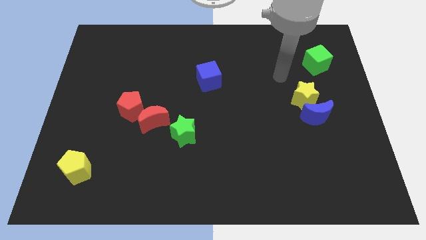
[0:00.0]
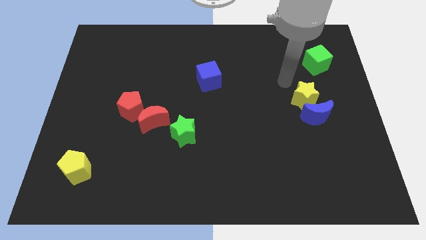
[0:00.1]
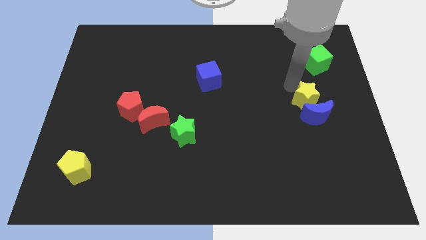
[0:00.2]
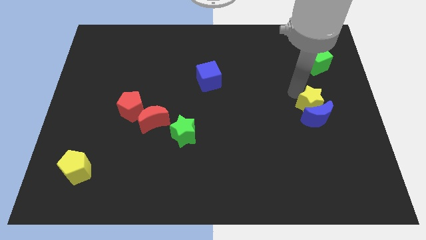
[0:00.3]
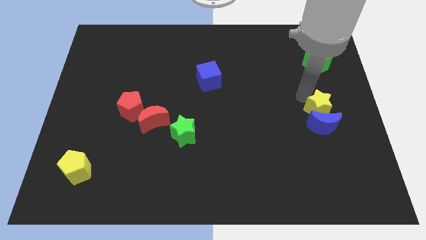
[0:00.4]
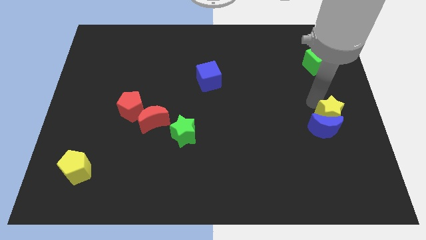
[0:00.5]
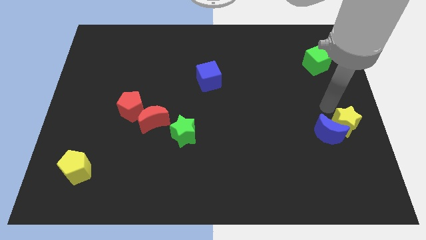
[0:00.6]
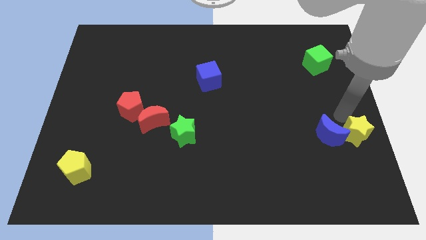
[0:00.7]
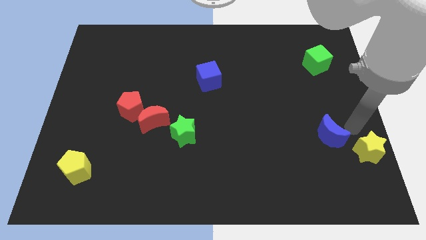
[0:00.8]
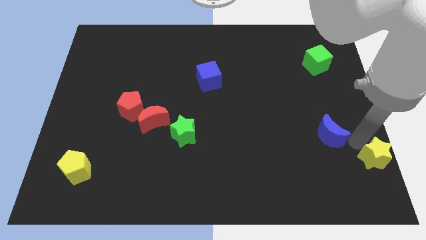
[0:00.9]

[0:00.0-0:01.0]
move the blue moon away from the yellow star

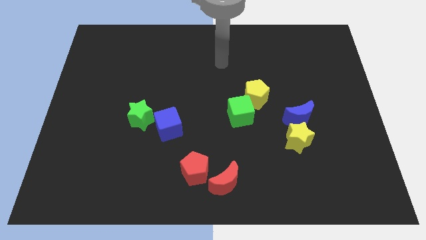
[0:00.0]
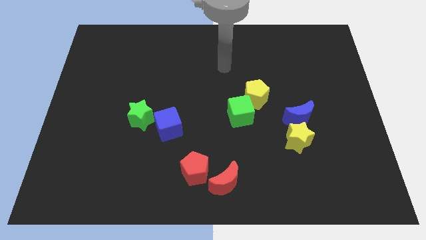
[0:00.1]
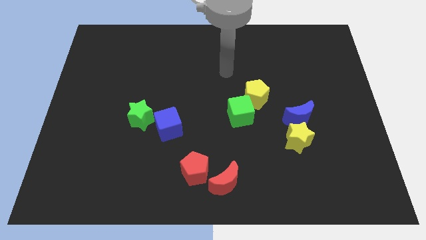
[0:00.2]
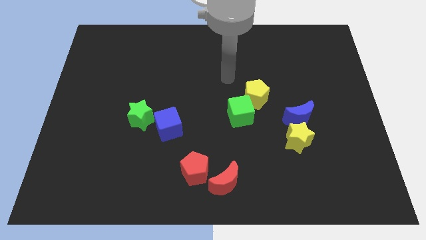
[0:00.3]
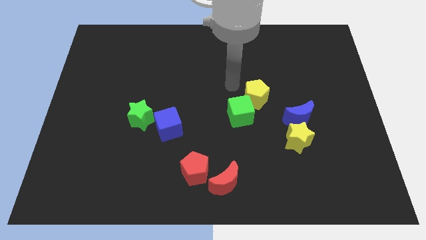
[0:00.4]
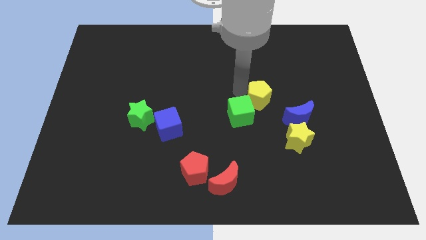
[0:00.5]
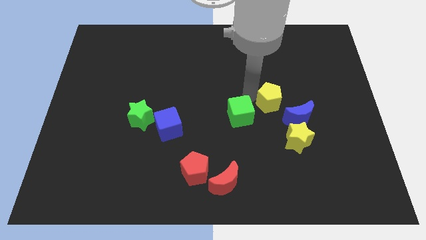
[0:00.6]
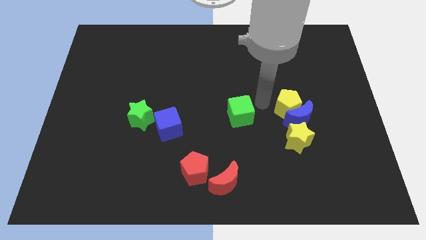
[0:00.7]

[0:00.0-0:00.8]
separate the green cube from the yellow pentagon

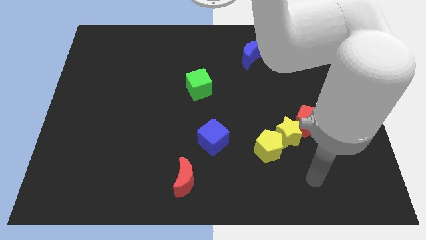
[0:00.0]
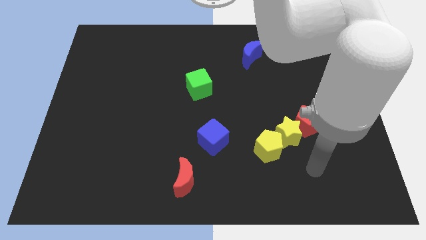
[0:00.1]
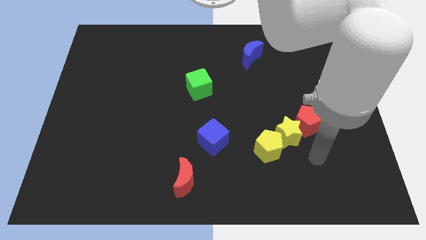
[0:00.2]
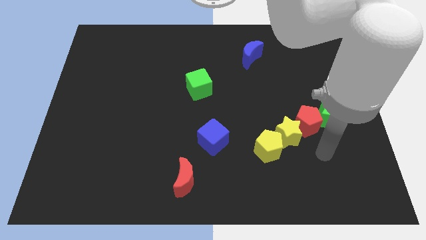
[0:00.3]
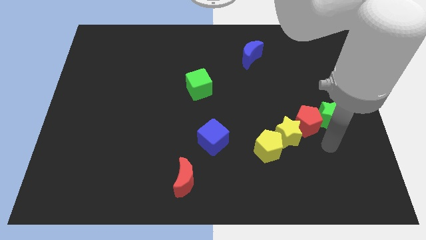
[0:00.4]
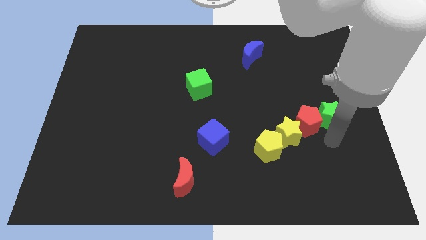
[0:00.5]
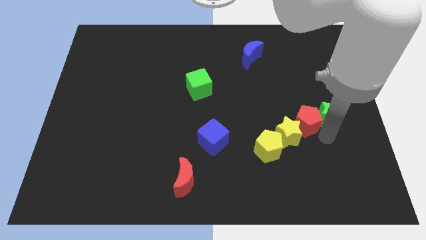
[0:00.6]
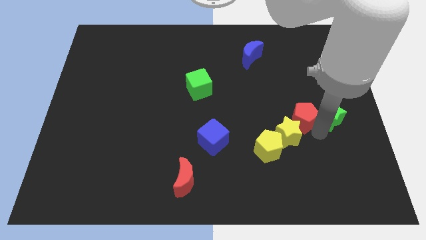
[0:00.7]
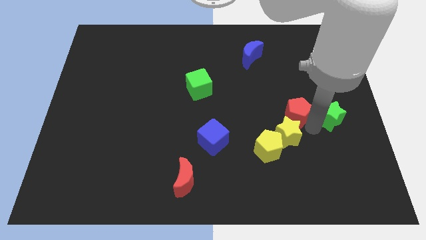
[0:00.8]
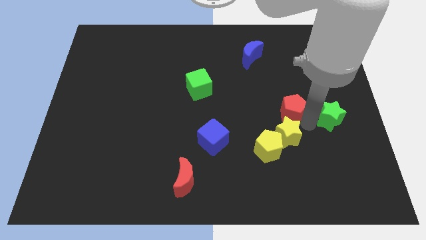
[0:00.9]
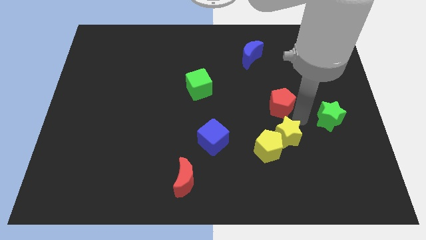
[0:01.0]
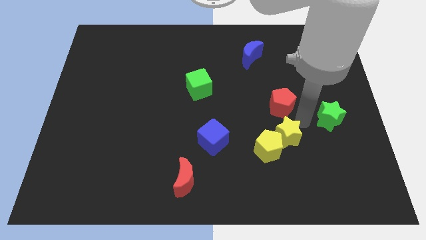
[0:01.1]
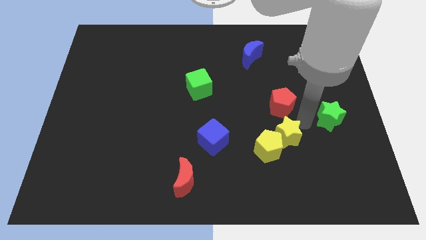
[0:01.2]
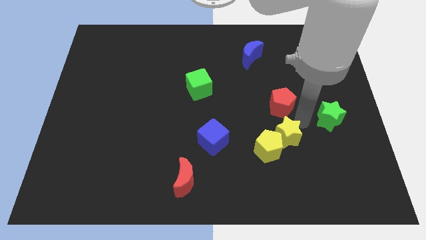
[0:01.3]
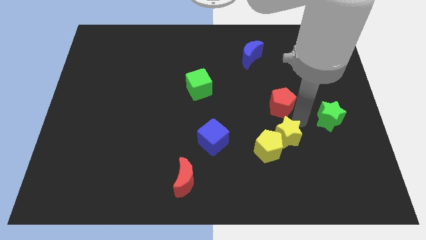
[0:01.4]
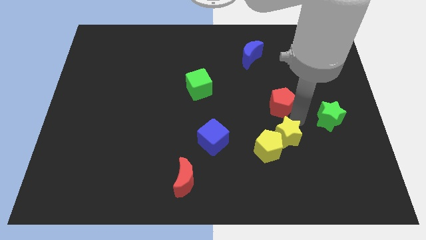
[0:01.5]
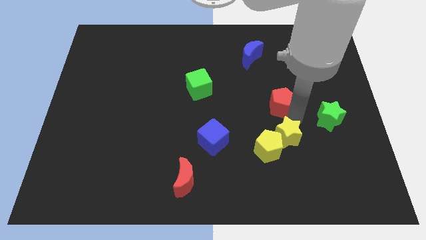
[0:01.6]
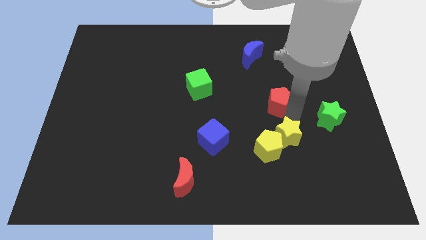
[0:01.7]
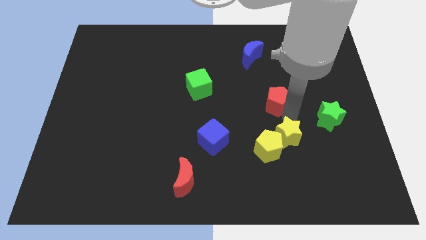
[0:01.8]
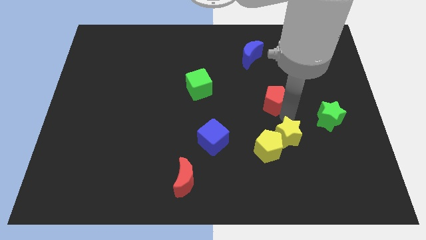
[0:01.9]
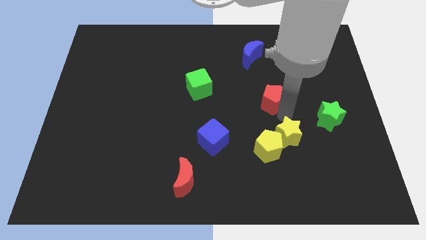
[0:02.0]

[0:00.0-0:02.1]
separate the red pentagon from the yellow star and green star

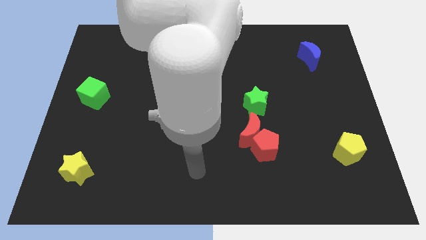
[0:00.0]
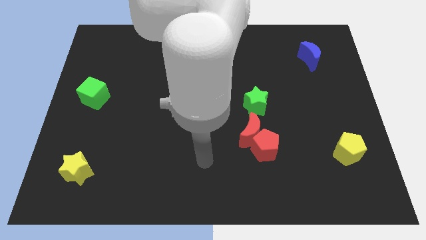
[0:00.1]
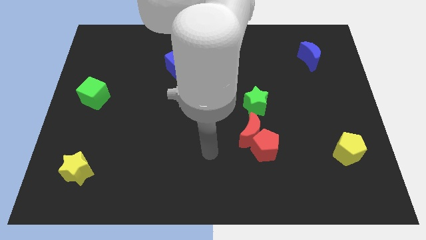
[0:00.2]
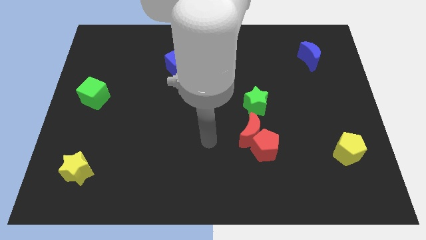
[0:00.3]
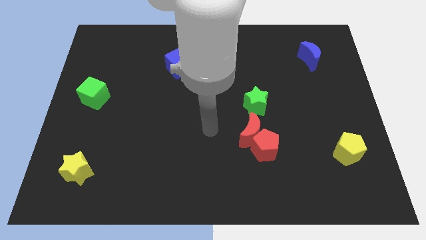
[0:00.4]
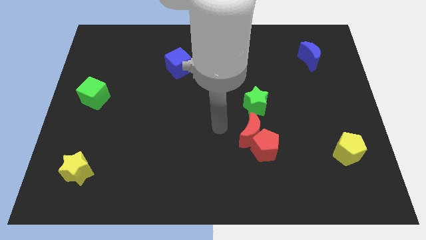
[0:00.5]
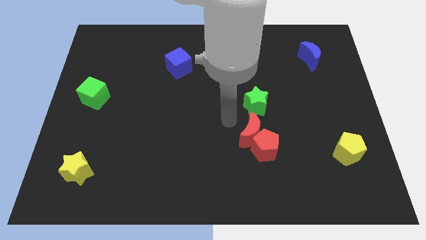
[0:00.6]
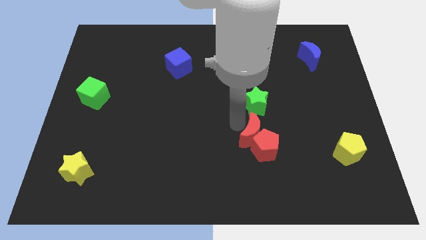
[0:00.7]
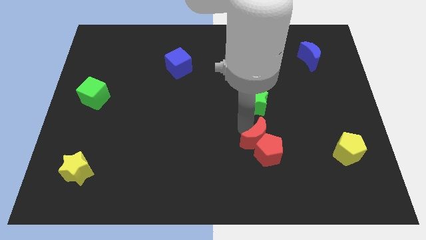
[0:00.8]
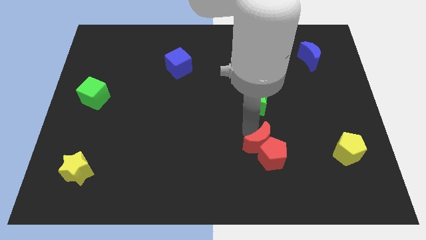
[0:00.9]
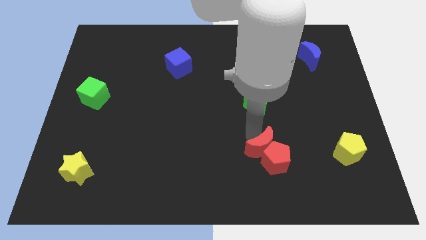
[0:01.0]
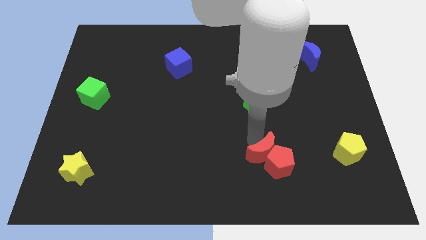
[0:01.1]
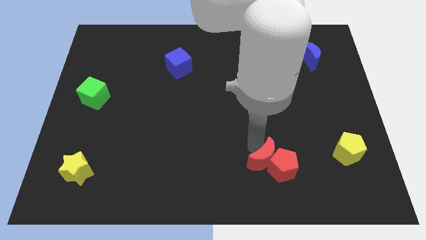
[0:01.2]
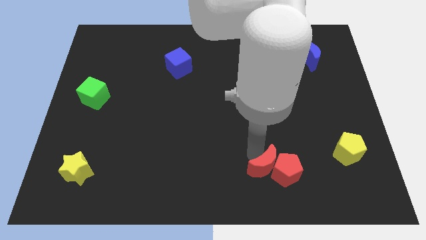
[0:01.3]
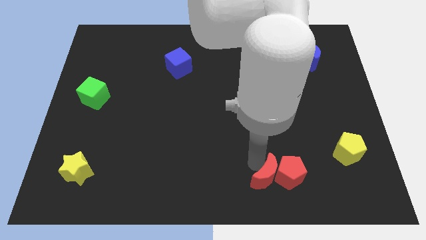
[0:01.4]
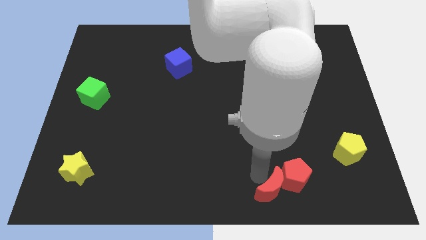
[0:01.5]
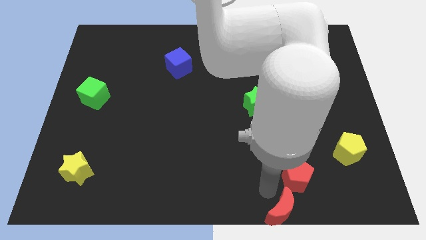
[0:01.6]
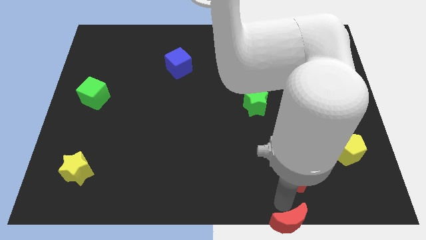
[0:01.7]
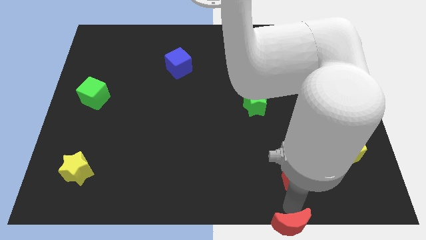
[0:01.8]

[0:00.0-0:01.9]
move the red pentagon away from the red moon

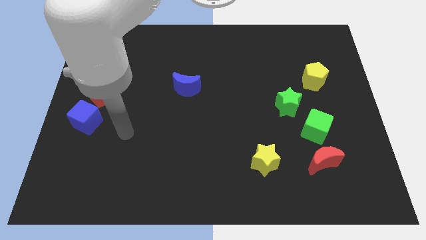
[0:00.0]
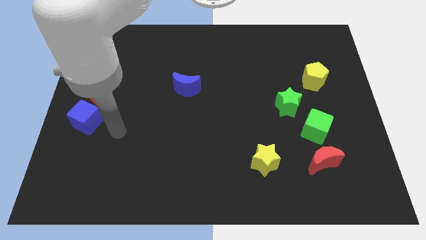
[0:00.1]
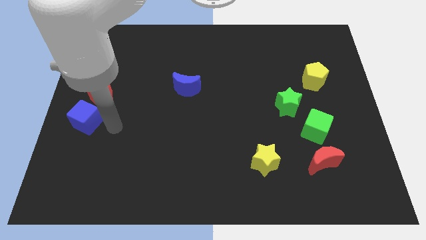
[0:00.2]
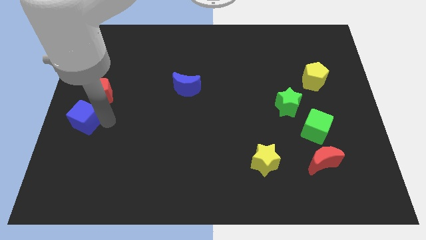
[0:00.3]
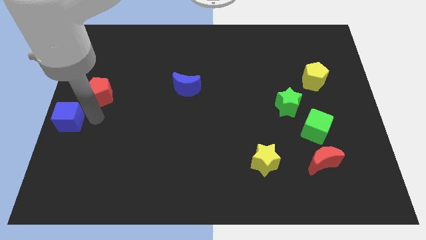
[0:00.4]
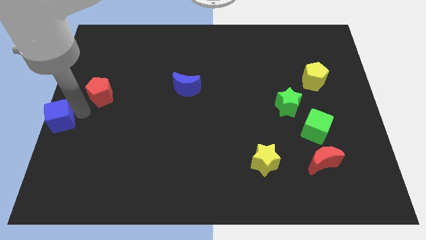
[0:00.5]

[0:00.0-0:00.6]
separate the red pentagon from the blue cube

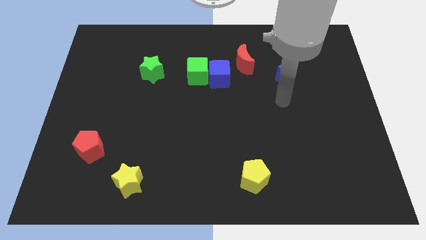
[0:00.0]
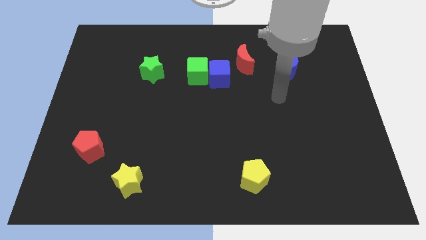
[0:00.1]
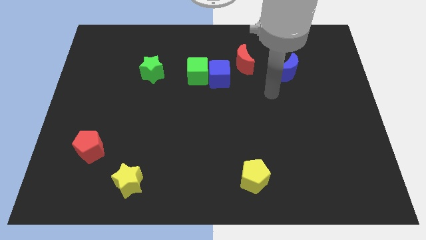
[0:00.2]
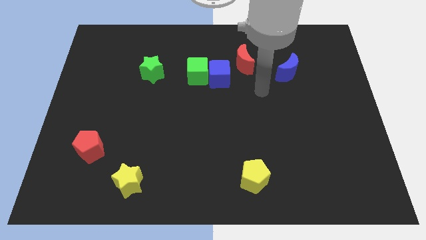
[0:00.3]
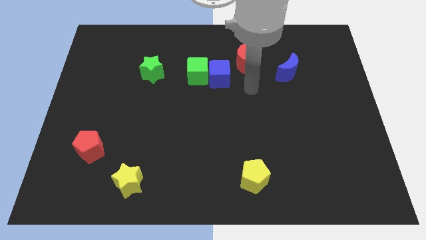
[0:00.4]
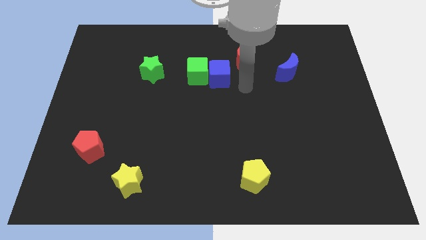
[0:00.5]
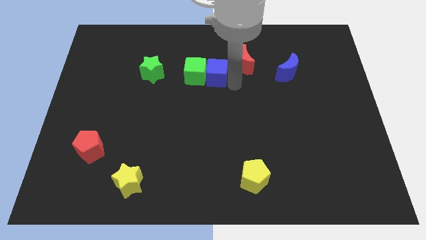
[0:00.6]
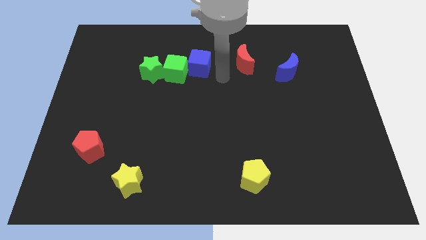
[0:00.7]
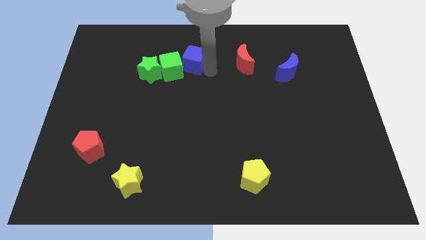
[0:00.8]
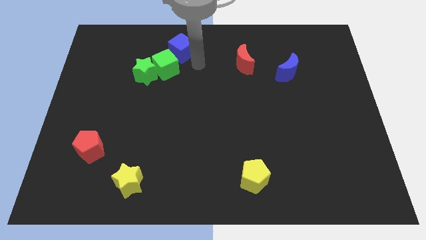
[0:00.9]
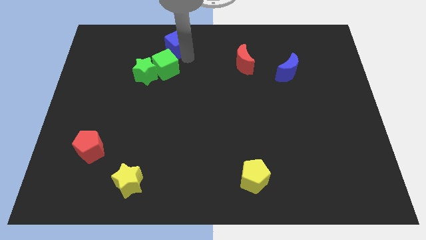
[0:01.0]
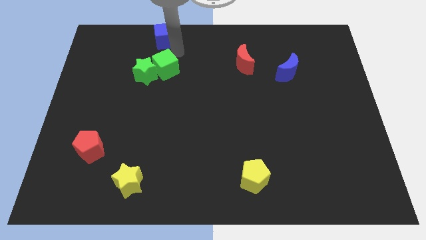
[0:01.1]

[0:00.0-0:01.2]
pull the green cube apart from the blue cube

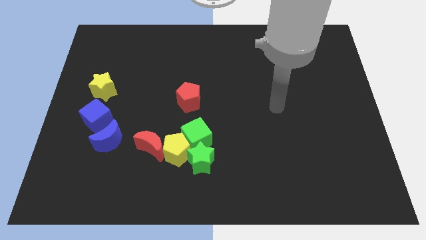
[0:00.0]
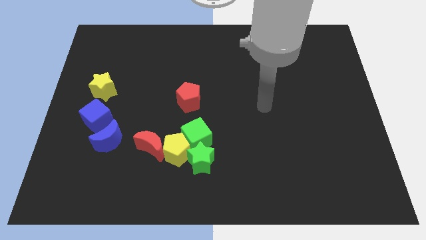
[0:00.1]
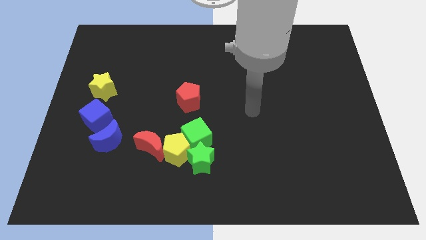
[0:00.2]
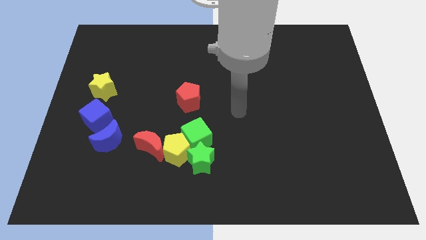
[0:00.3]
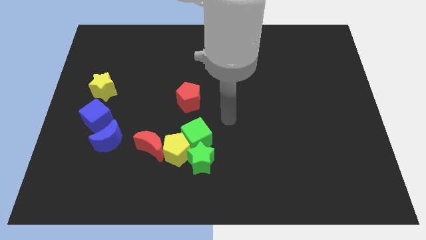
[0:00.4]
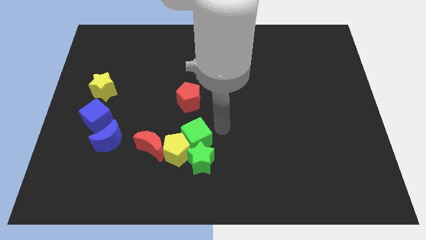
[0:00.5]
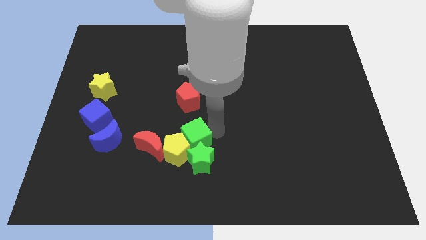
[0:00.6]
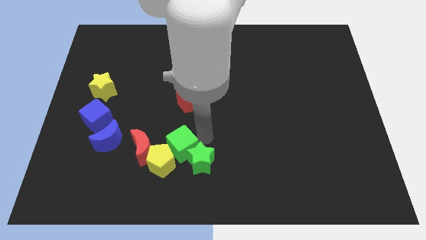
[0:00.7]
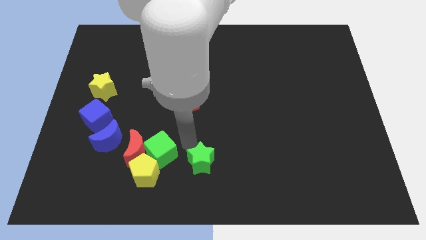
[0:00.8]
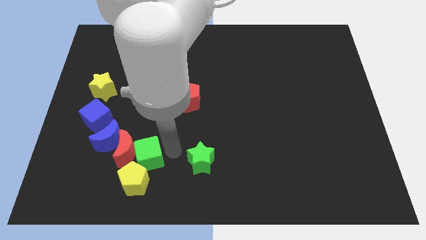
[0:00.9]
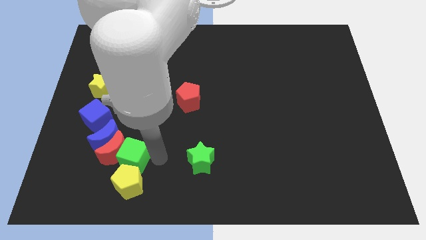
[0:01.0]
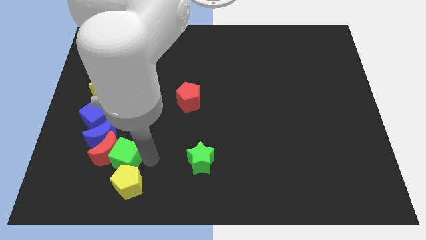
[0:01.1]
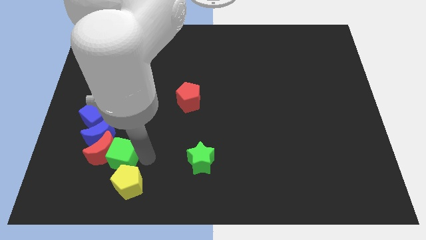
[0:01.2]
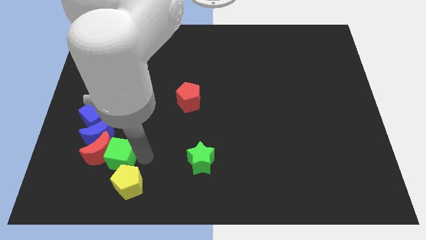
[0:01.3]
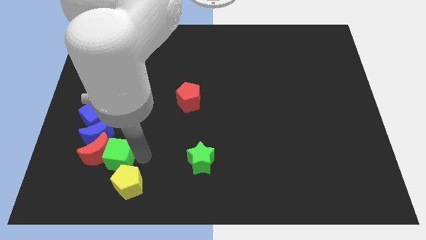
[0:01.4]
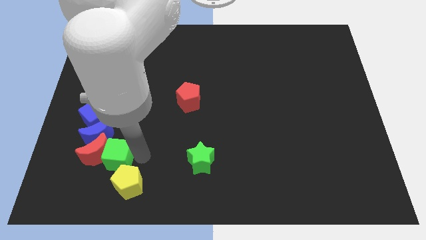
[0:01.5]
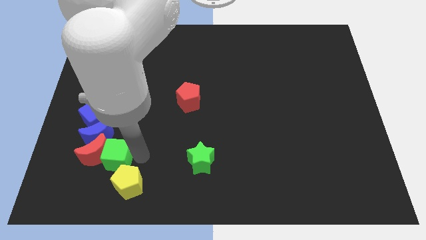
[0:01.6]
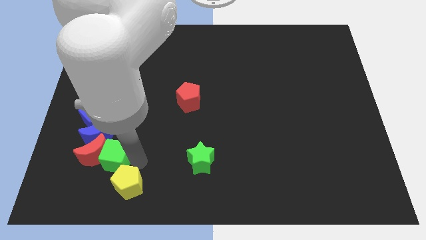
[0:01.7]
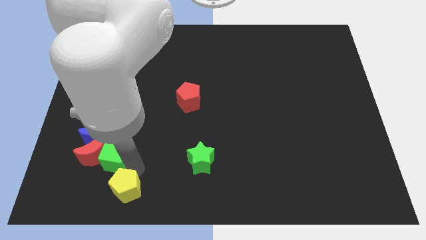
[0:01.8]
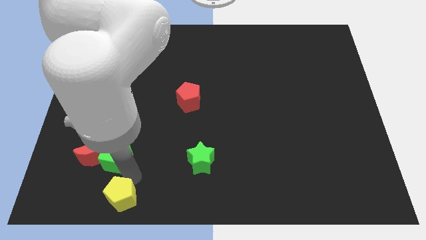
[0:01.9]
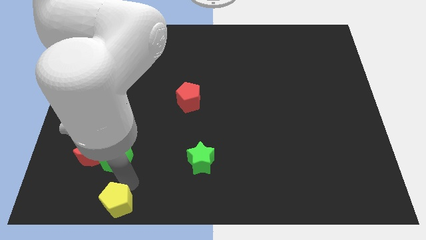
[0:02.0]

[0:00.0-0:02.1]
move the yellow pentagon away from the group
